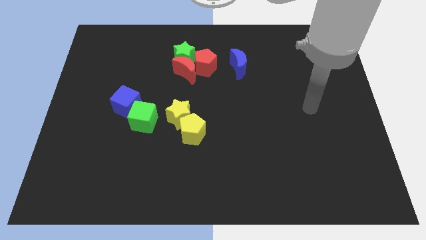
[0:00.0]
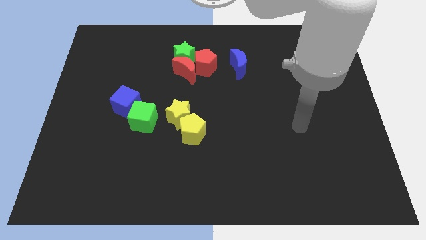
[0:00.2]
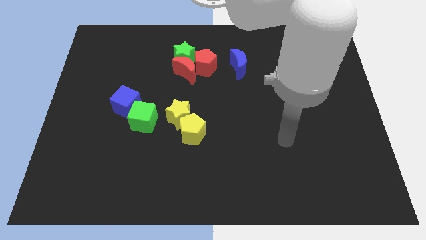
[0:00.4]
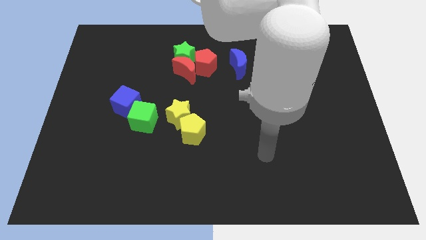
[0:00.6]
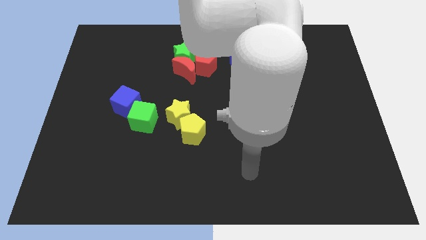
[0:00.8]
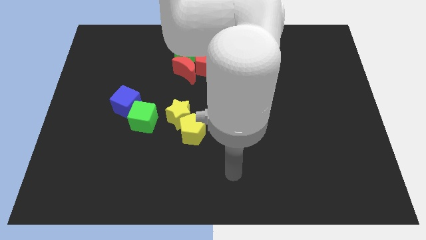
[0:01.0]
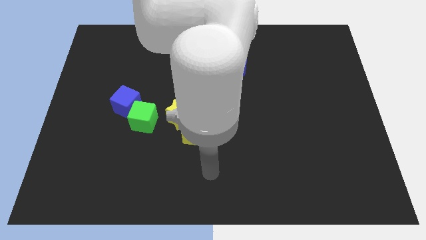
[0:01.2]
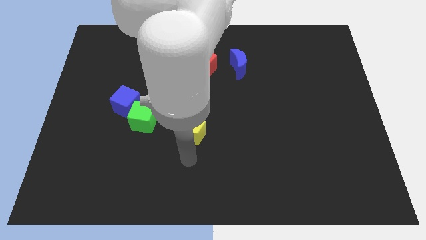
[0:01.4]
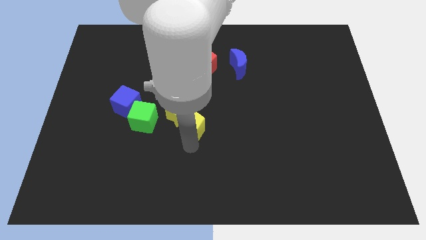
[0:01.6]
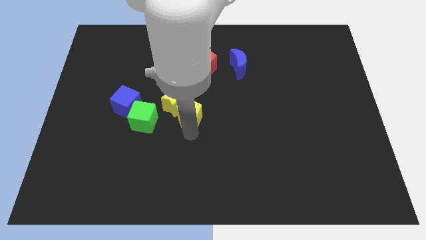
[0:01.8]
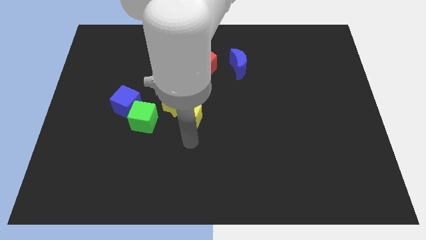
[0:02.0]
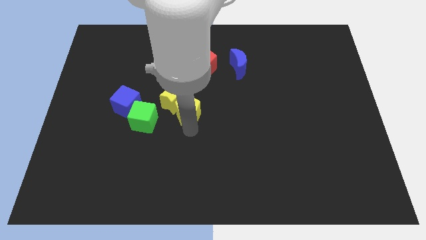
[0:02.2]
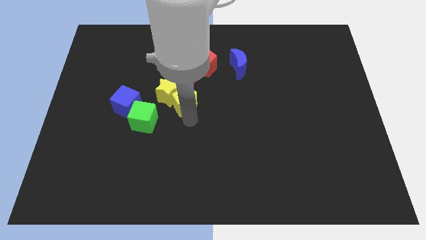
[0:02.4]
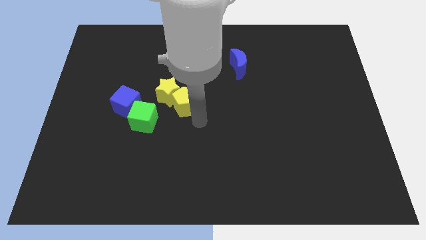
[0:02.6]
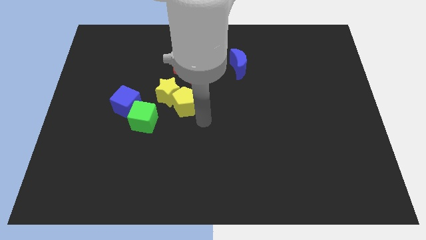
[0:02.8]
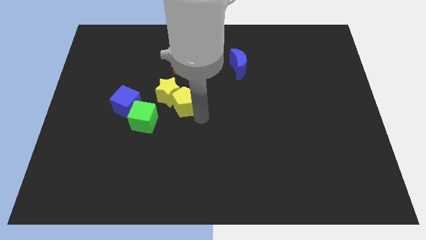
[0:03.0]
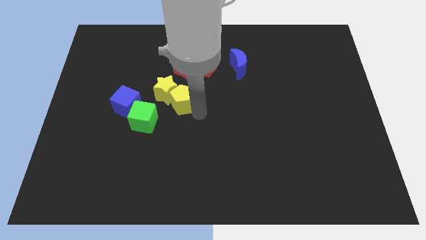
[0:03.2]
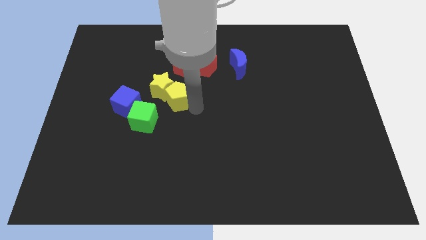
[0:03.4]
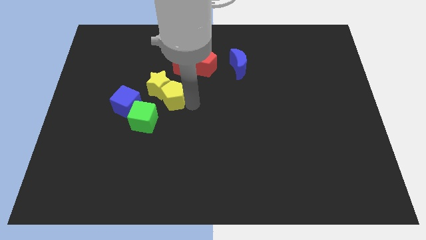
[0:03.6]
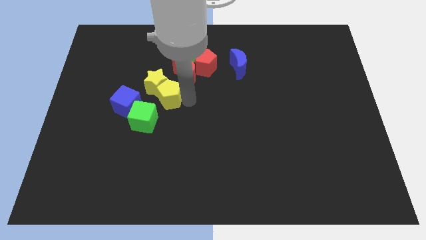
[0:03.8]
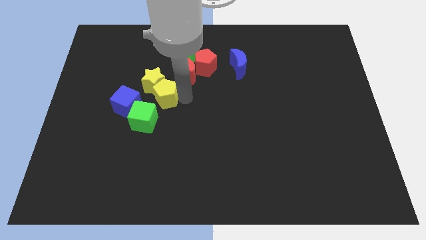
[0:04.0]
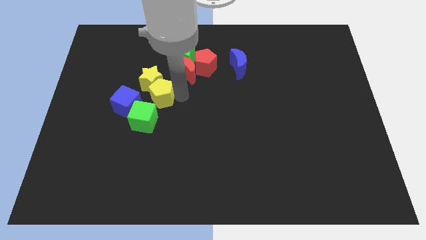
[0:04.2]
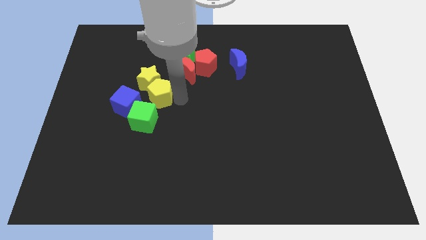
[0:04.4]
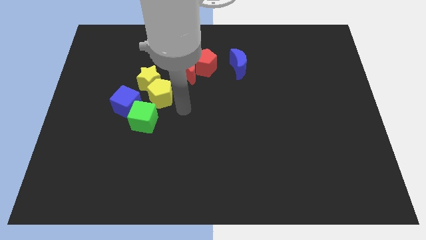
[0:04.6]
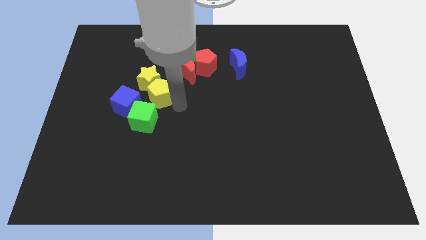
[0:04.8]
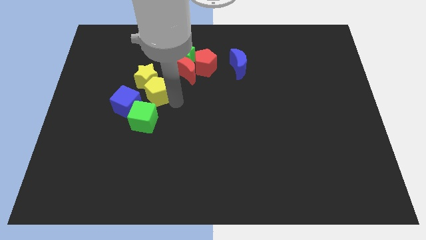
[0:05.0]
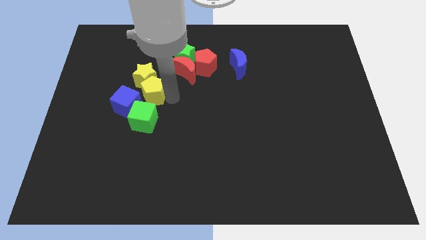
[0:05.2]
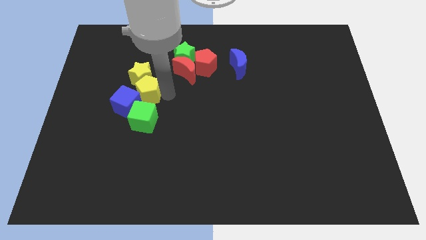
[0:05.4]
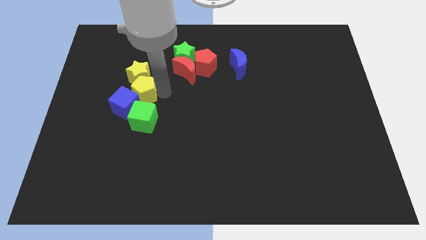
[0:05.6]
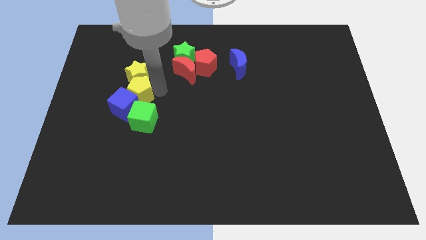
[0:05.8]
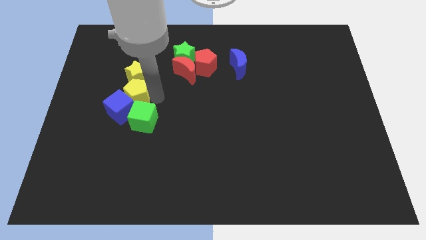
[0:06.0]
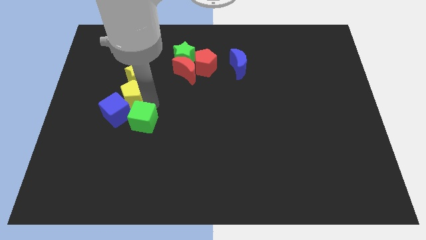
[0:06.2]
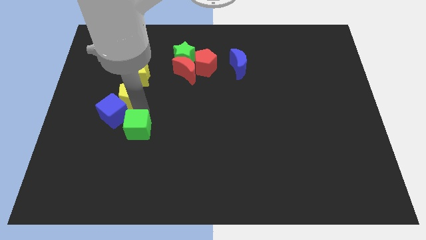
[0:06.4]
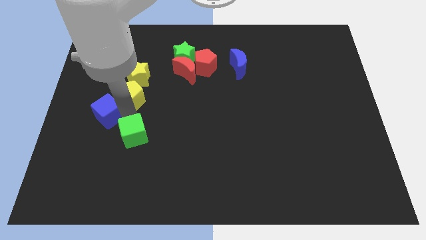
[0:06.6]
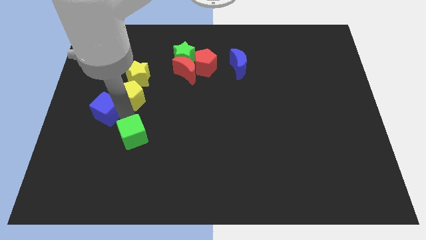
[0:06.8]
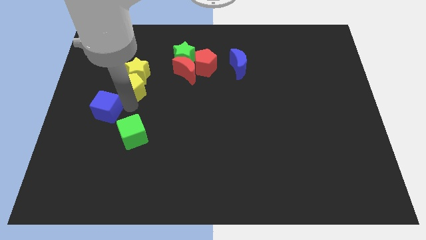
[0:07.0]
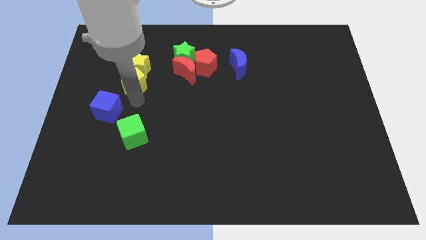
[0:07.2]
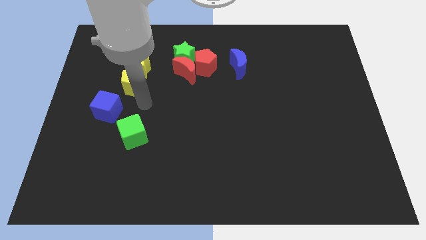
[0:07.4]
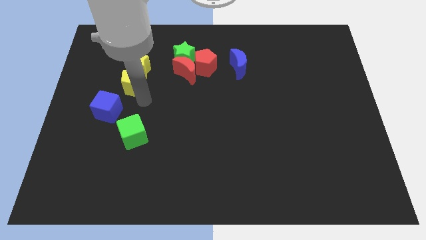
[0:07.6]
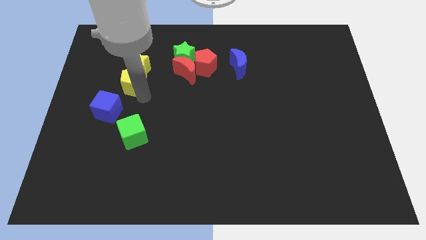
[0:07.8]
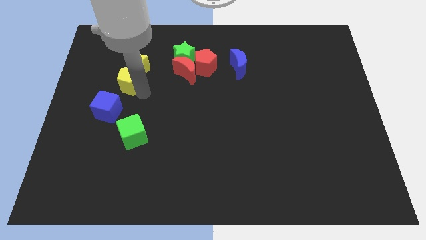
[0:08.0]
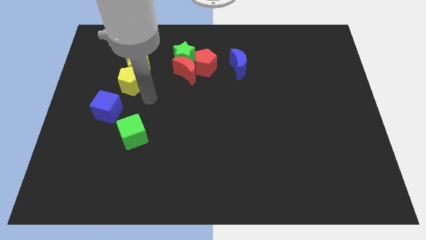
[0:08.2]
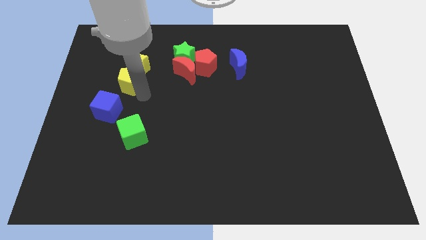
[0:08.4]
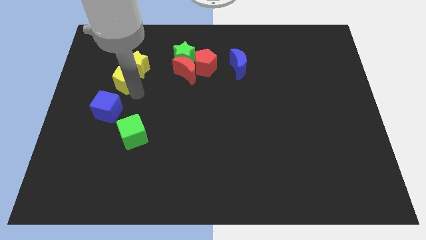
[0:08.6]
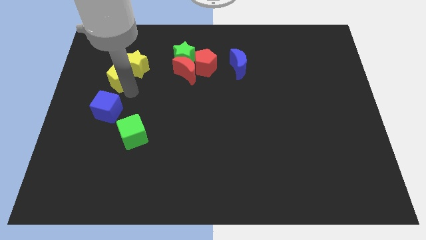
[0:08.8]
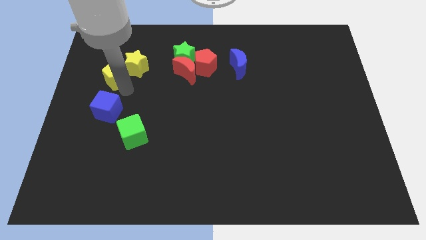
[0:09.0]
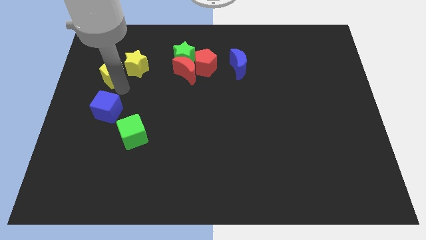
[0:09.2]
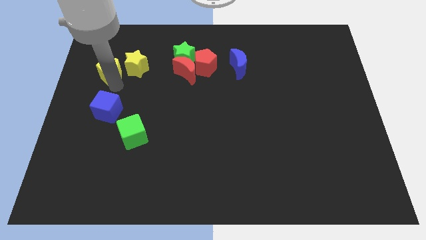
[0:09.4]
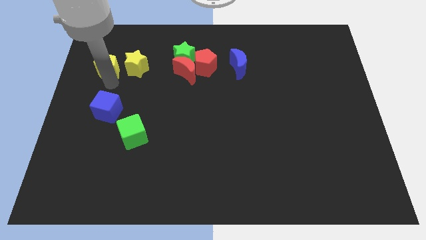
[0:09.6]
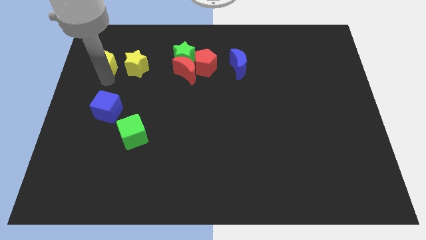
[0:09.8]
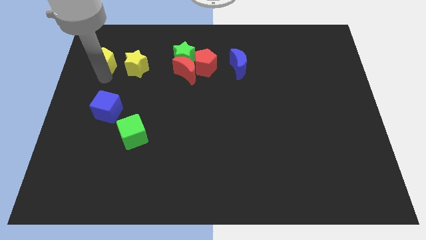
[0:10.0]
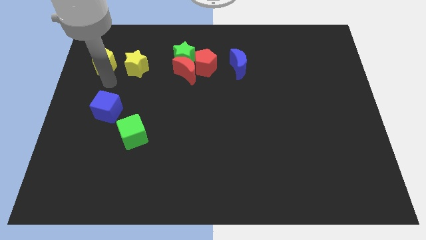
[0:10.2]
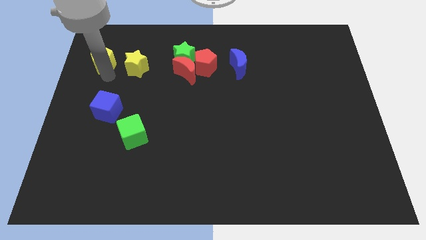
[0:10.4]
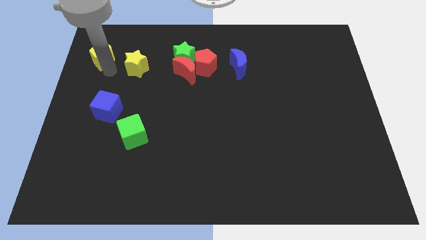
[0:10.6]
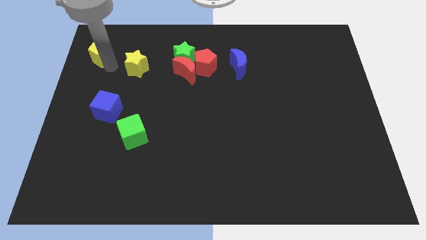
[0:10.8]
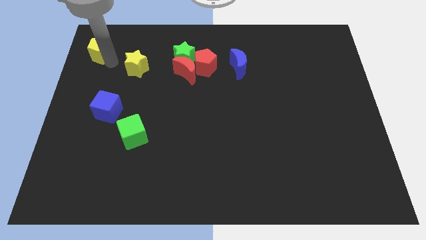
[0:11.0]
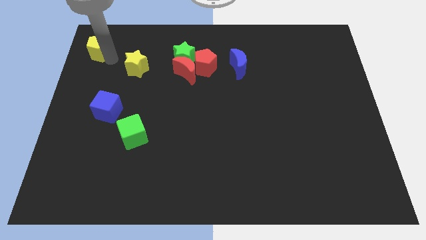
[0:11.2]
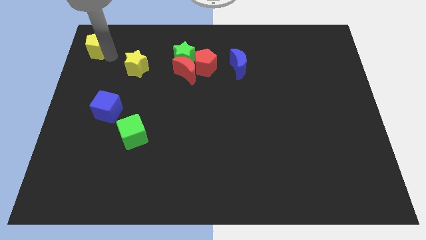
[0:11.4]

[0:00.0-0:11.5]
slide the yellow pentagon to the top left of the board
